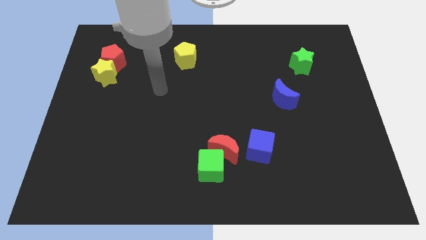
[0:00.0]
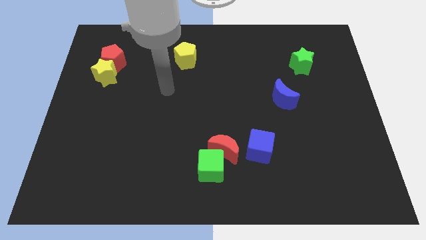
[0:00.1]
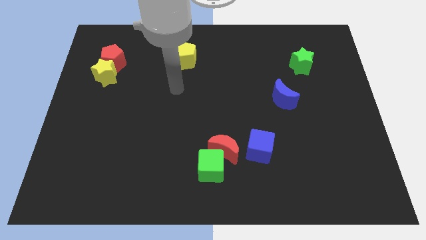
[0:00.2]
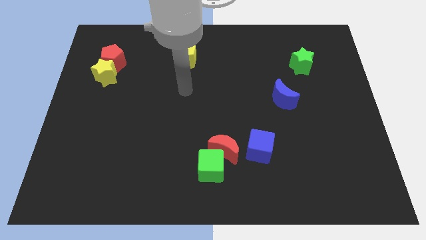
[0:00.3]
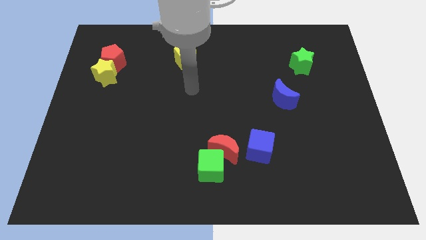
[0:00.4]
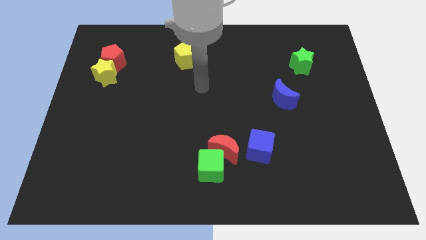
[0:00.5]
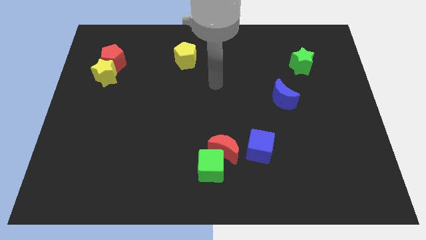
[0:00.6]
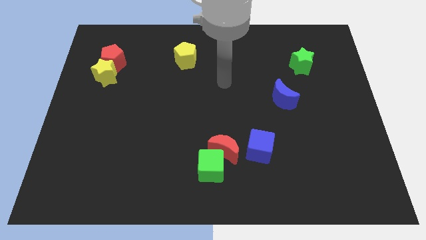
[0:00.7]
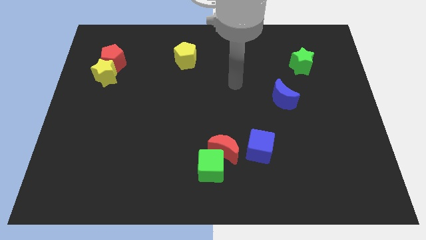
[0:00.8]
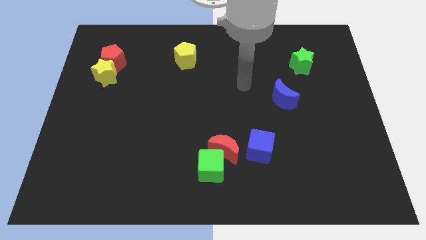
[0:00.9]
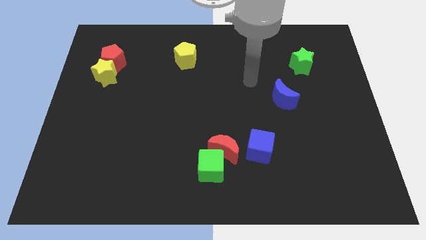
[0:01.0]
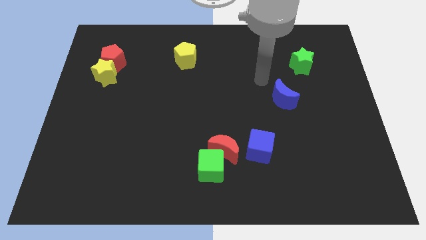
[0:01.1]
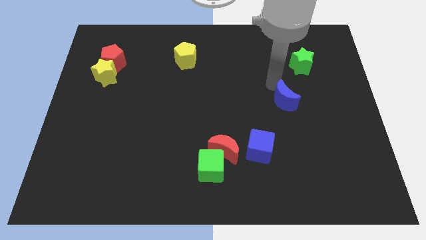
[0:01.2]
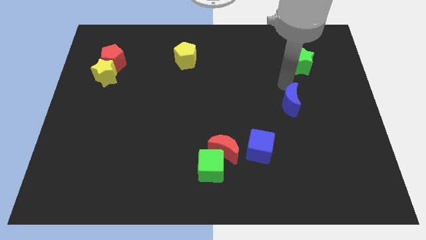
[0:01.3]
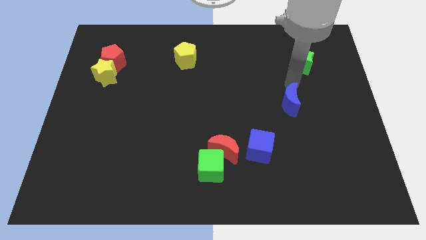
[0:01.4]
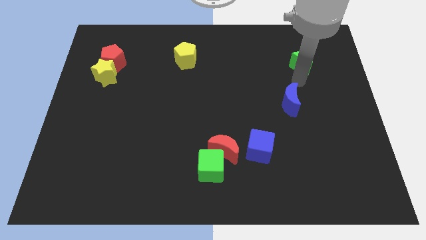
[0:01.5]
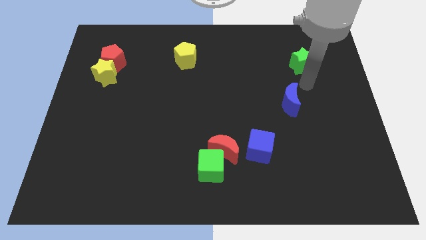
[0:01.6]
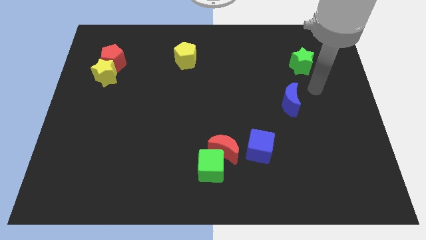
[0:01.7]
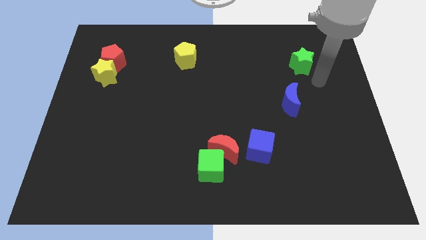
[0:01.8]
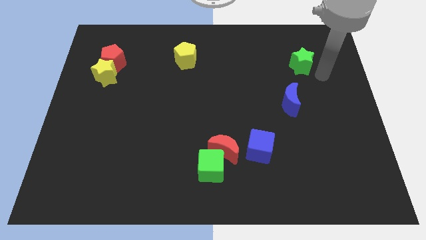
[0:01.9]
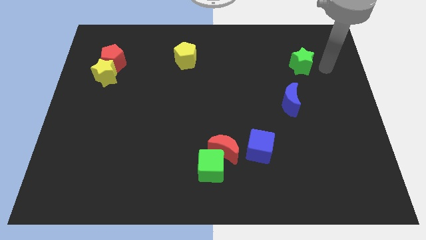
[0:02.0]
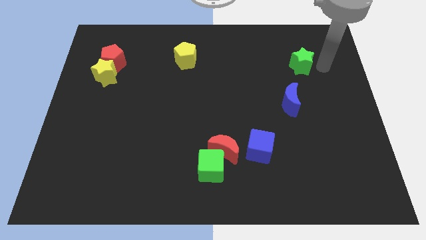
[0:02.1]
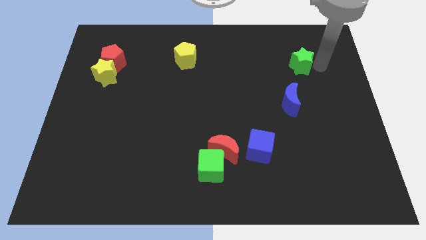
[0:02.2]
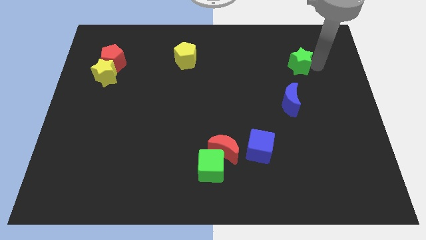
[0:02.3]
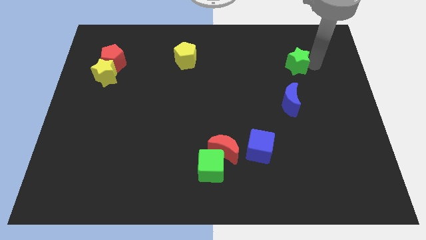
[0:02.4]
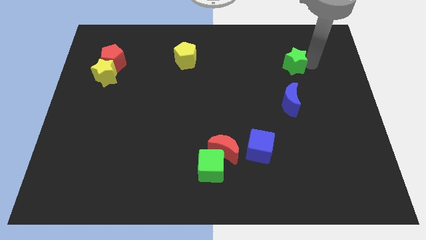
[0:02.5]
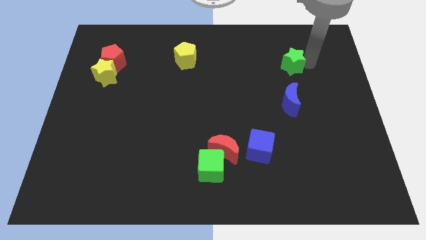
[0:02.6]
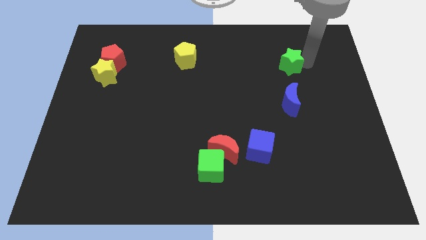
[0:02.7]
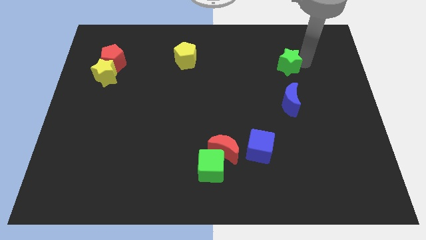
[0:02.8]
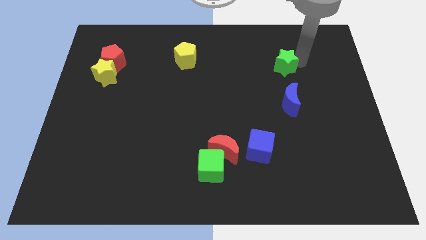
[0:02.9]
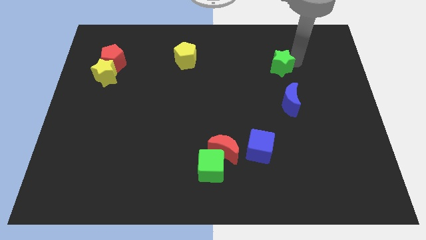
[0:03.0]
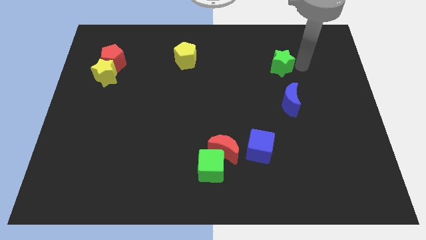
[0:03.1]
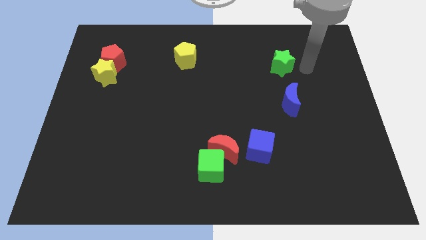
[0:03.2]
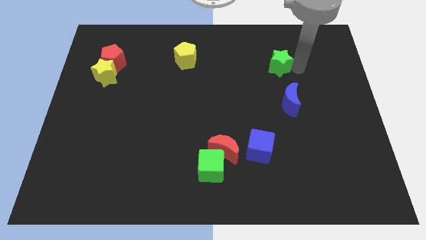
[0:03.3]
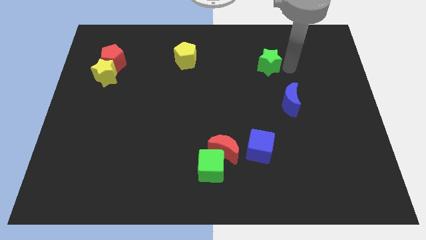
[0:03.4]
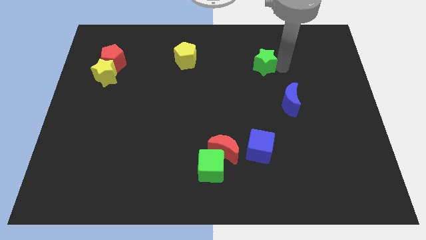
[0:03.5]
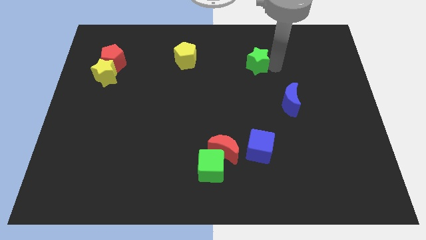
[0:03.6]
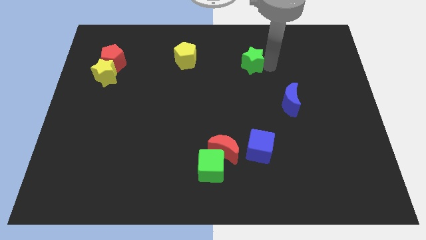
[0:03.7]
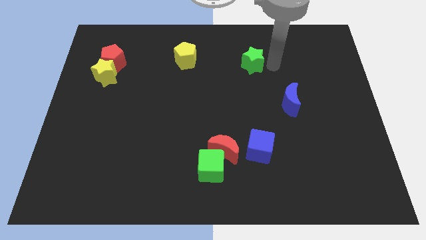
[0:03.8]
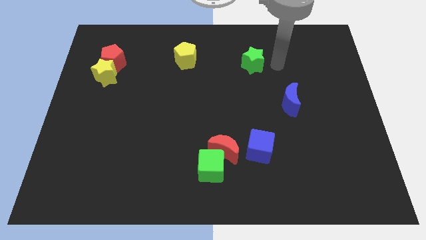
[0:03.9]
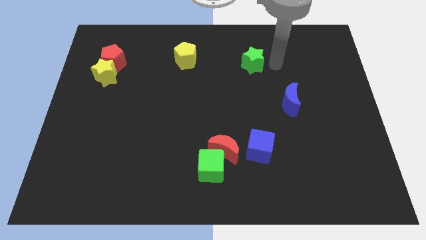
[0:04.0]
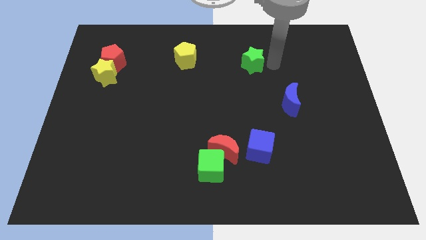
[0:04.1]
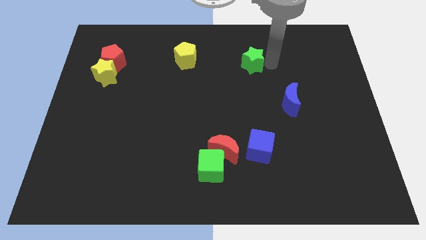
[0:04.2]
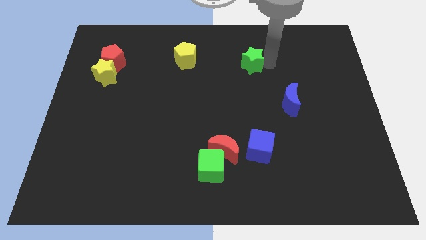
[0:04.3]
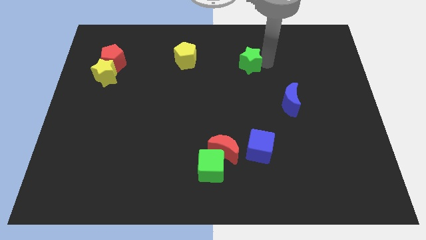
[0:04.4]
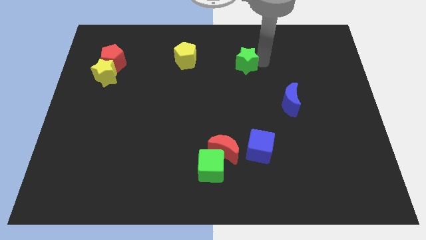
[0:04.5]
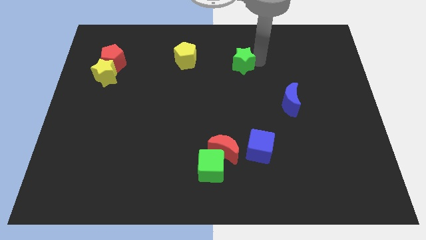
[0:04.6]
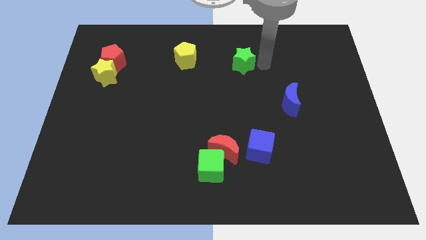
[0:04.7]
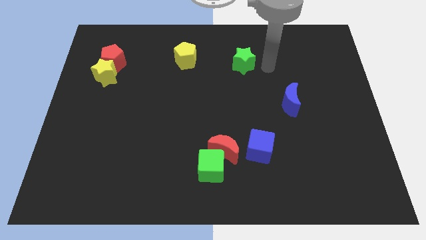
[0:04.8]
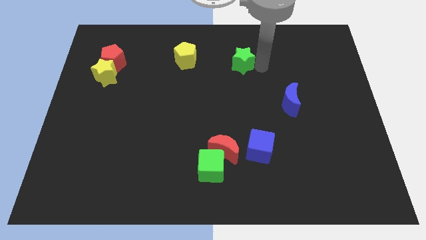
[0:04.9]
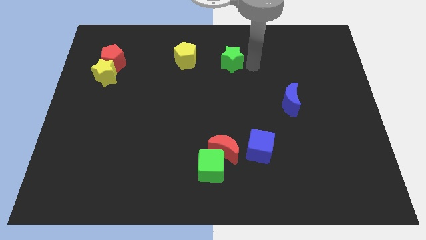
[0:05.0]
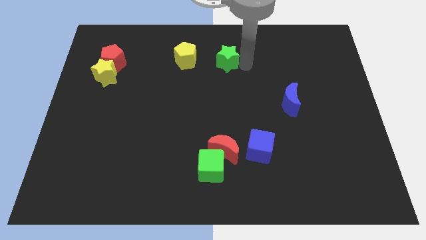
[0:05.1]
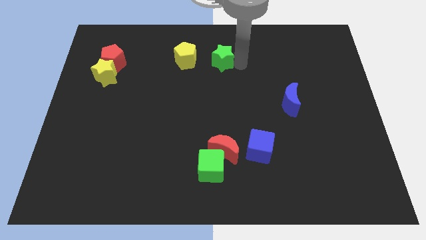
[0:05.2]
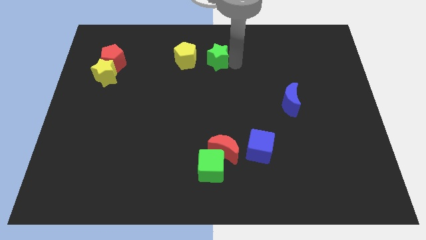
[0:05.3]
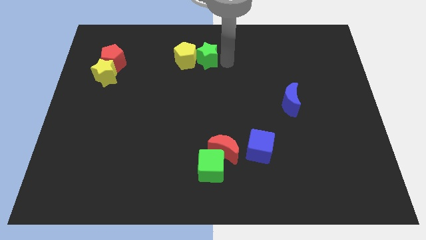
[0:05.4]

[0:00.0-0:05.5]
move the green star to the yellow pentagon

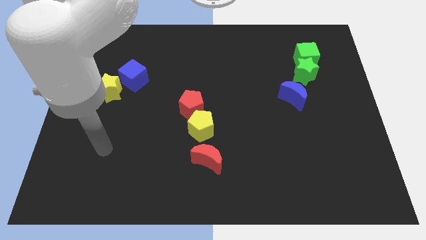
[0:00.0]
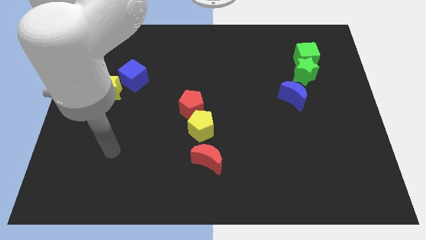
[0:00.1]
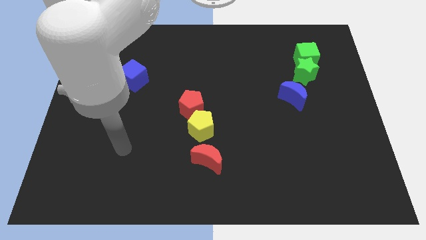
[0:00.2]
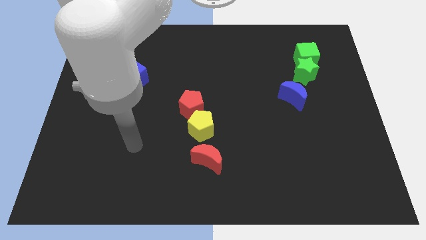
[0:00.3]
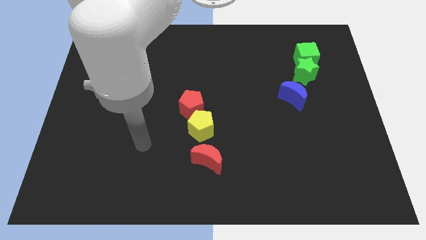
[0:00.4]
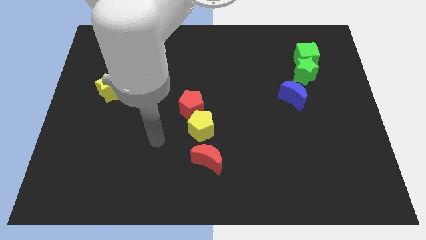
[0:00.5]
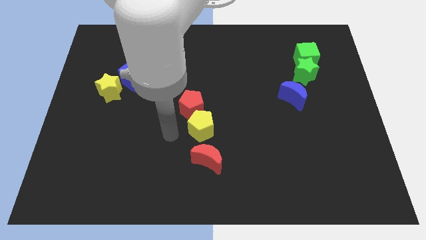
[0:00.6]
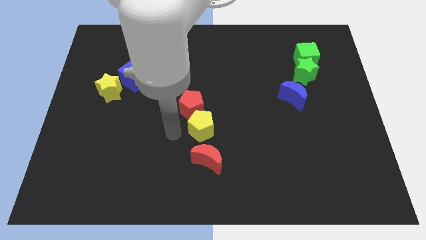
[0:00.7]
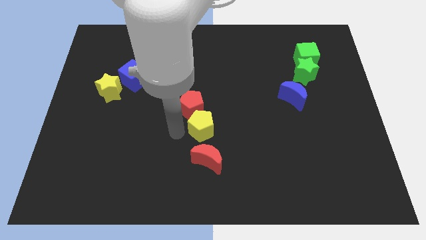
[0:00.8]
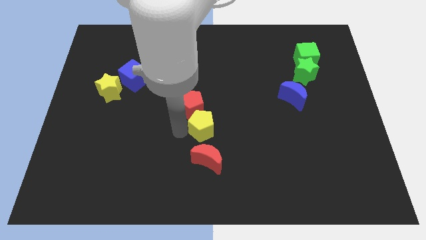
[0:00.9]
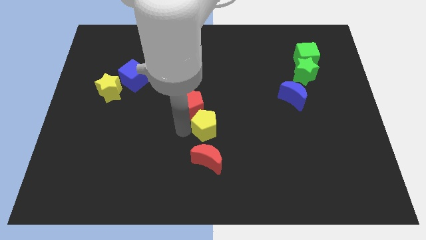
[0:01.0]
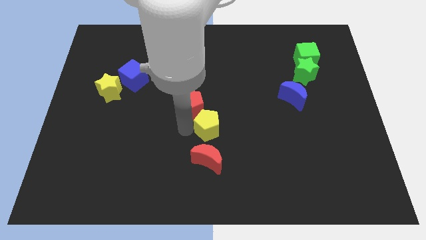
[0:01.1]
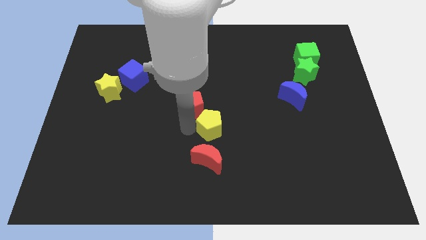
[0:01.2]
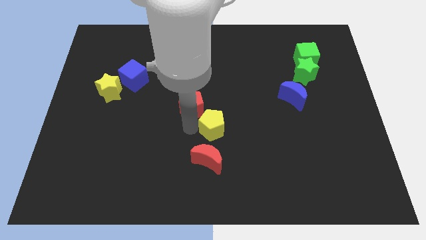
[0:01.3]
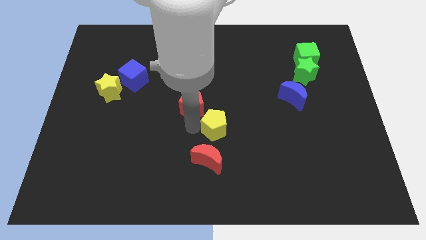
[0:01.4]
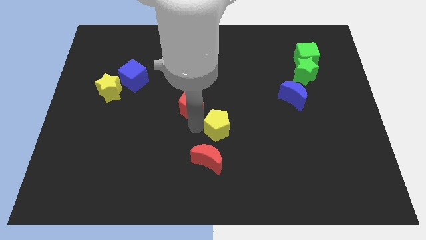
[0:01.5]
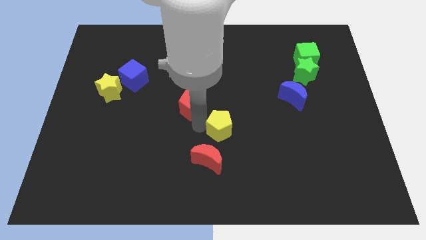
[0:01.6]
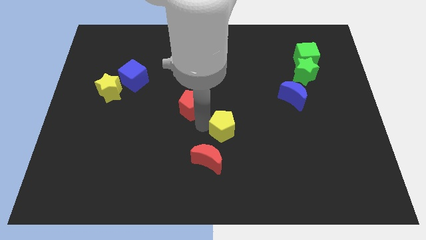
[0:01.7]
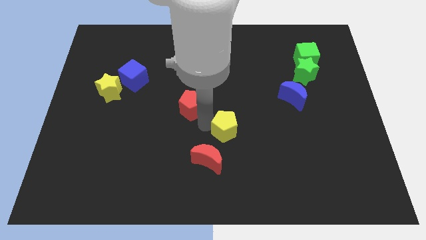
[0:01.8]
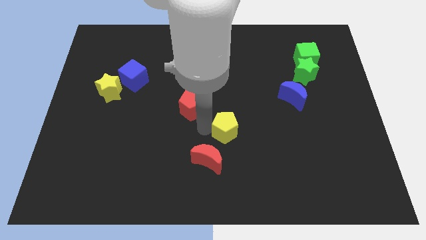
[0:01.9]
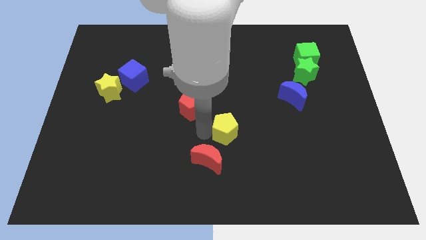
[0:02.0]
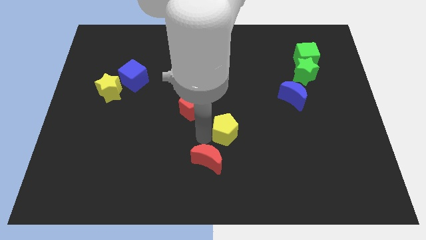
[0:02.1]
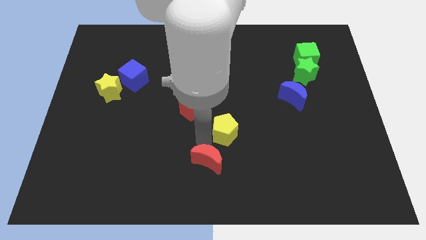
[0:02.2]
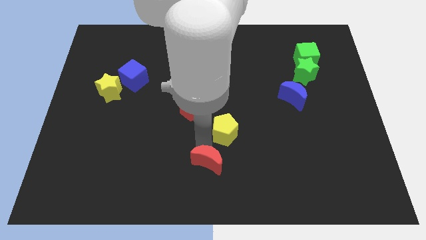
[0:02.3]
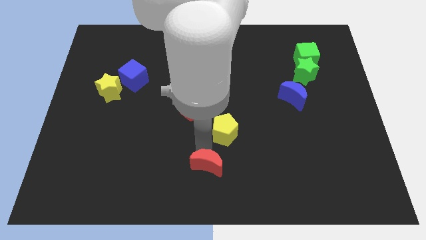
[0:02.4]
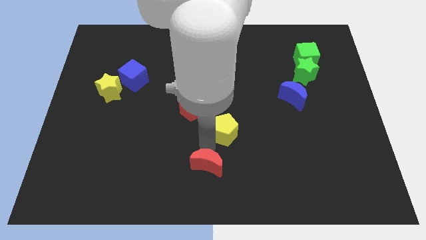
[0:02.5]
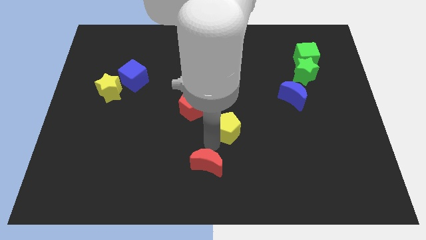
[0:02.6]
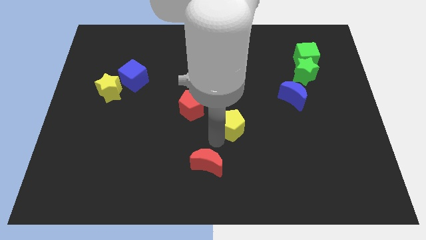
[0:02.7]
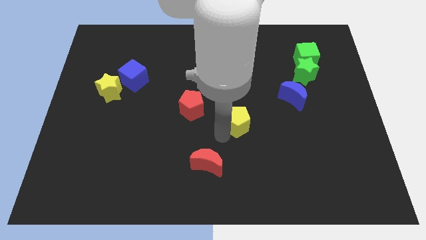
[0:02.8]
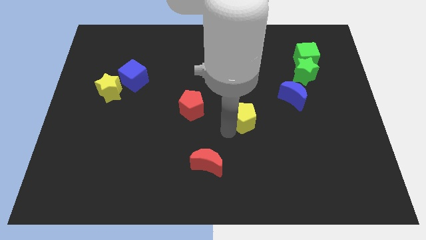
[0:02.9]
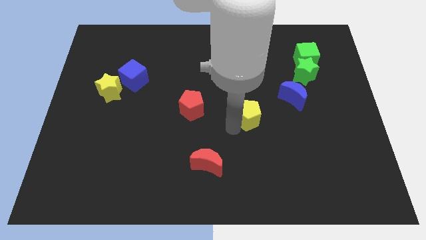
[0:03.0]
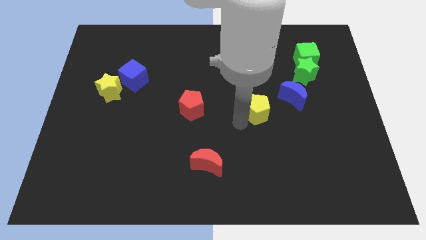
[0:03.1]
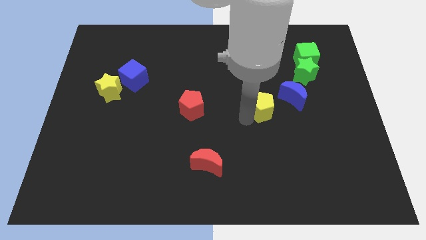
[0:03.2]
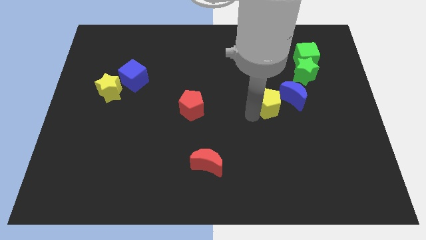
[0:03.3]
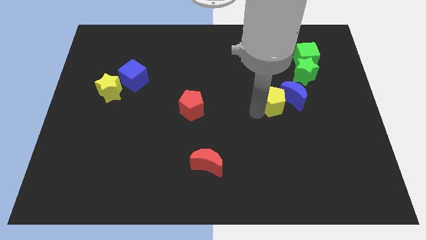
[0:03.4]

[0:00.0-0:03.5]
move the yellow pentagon towards the blue moon
